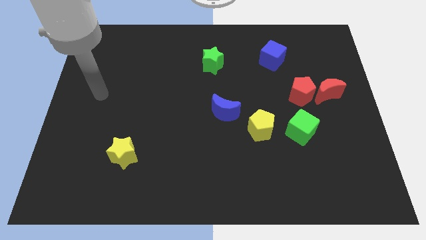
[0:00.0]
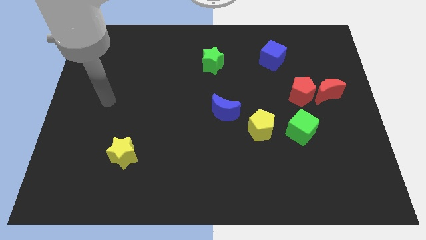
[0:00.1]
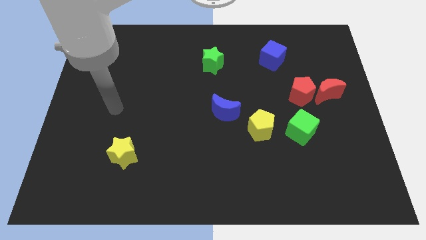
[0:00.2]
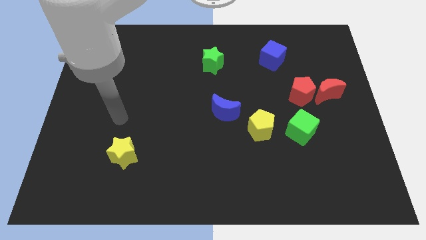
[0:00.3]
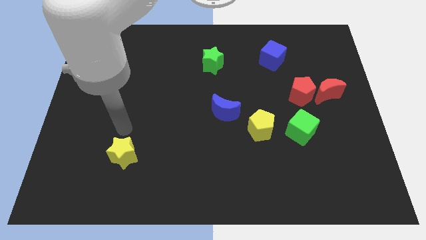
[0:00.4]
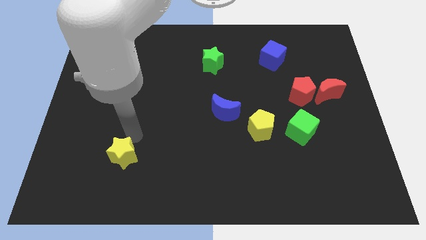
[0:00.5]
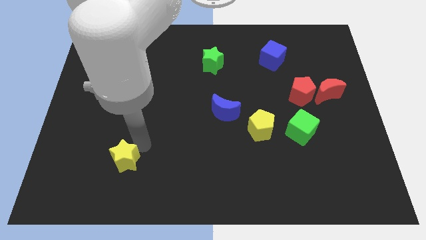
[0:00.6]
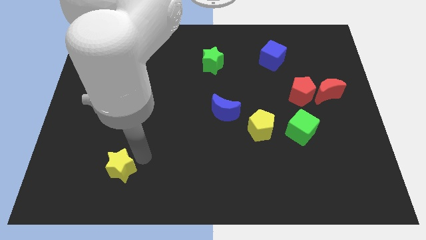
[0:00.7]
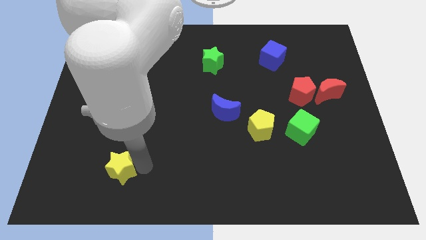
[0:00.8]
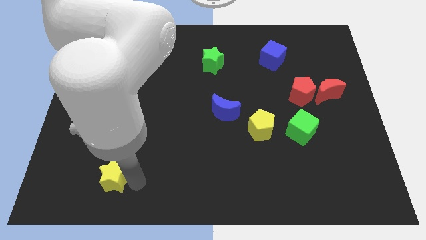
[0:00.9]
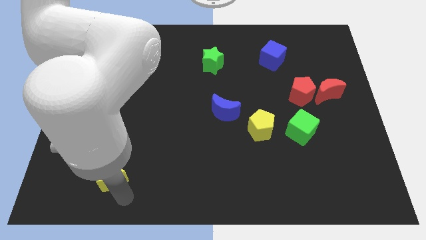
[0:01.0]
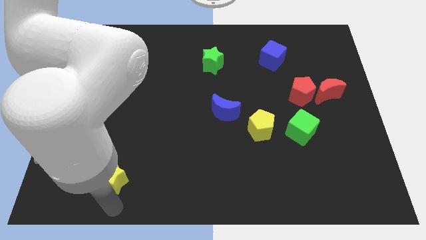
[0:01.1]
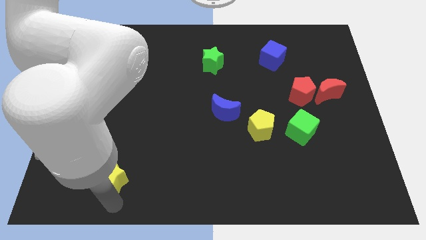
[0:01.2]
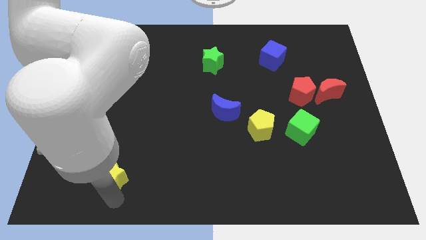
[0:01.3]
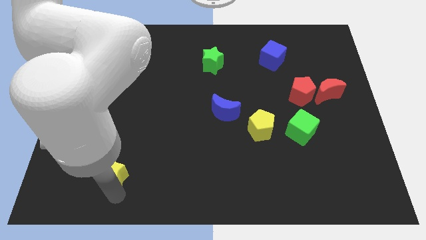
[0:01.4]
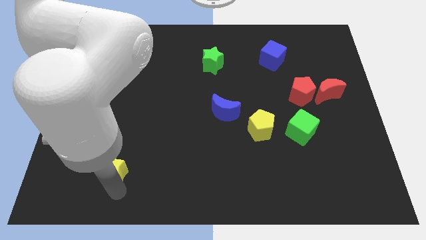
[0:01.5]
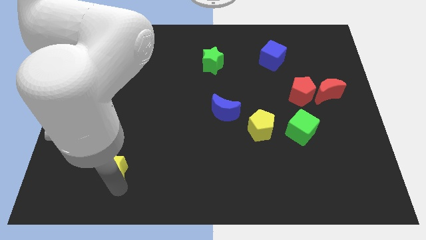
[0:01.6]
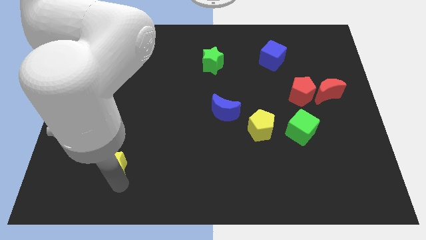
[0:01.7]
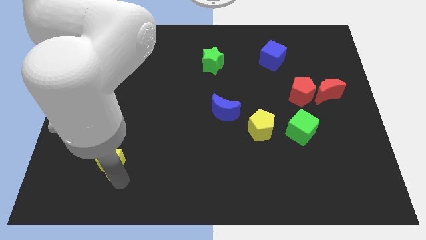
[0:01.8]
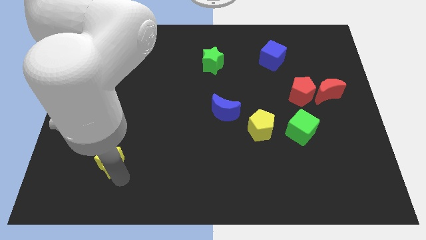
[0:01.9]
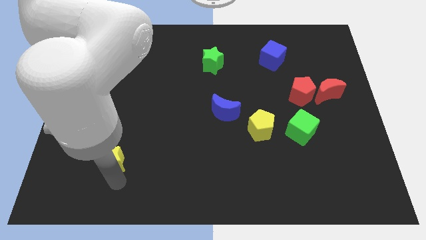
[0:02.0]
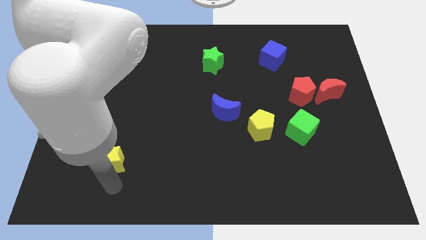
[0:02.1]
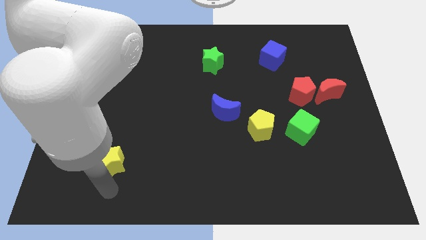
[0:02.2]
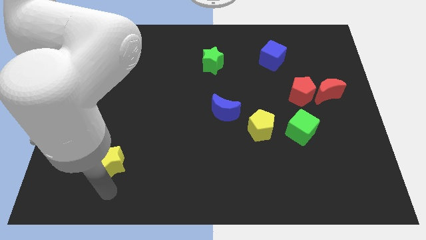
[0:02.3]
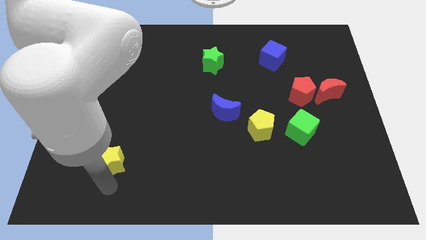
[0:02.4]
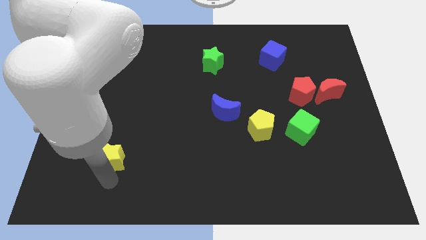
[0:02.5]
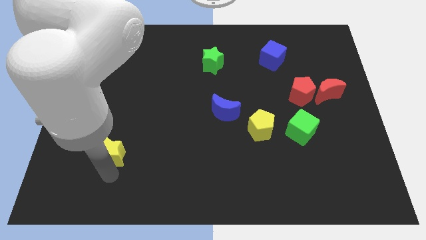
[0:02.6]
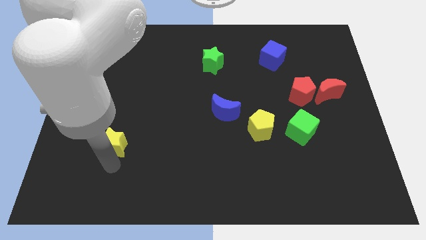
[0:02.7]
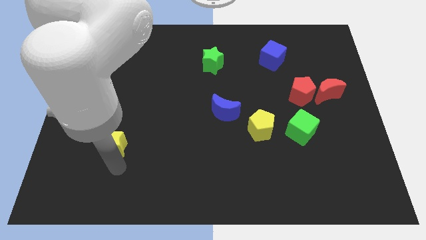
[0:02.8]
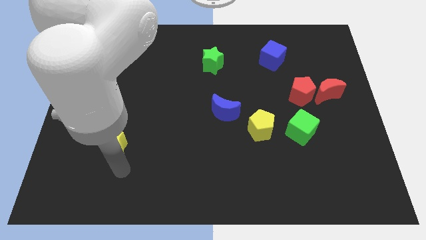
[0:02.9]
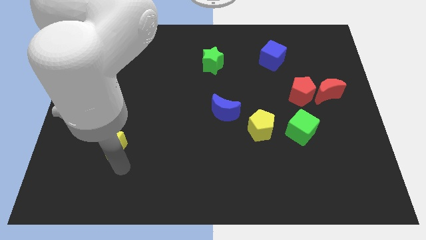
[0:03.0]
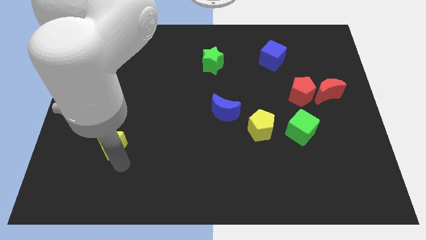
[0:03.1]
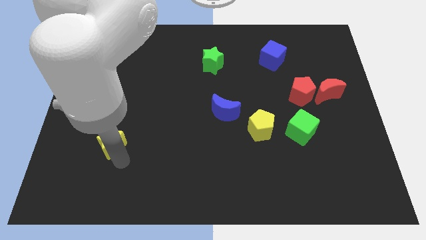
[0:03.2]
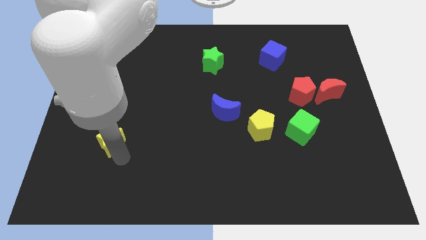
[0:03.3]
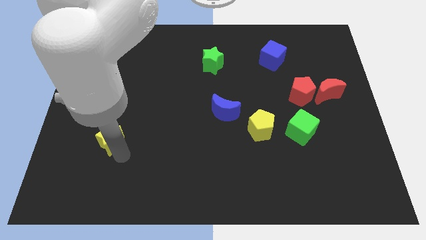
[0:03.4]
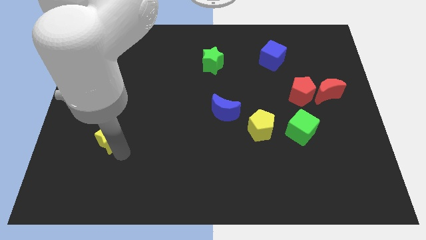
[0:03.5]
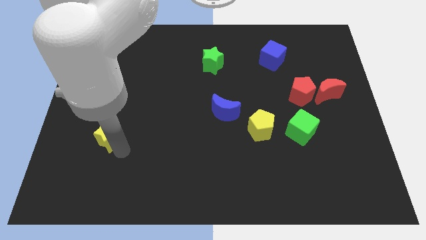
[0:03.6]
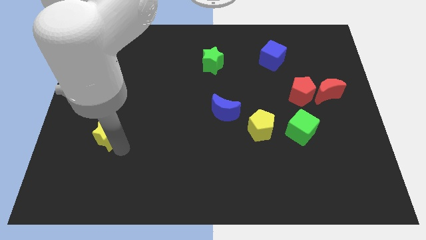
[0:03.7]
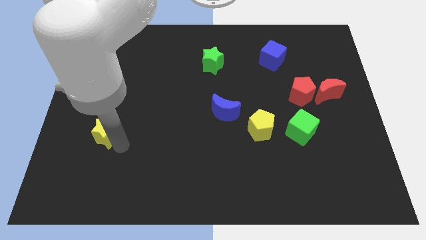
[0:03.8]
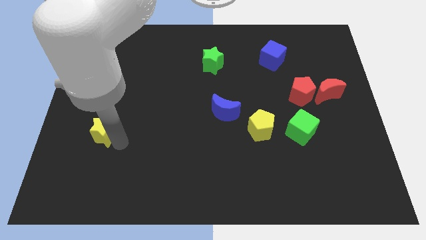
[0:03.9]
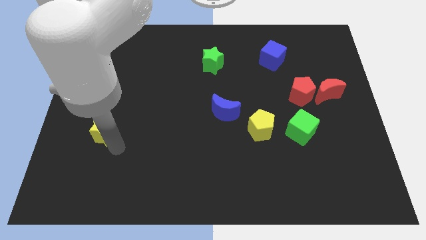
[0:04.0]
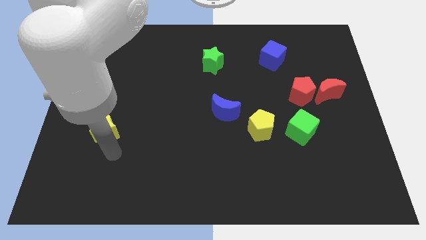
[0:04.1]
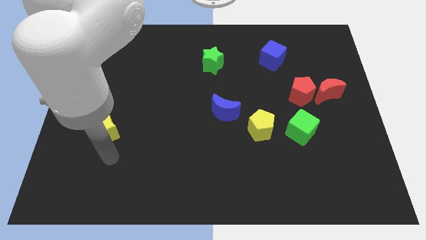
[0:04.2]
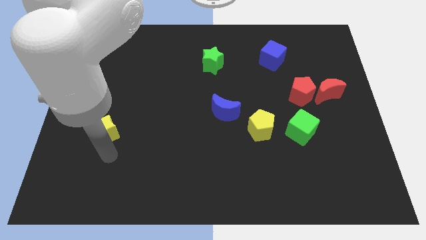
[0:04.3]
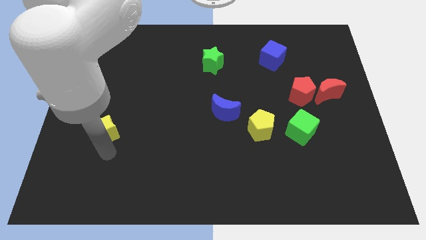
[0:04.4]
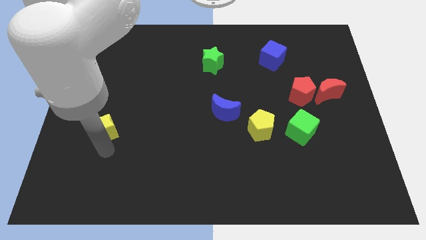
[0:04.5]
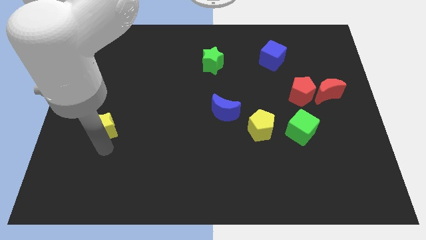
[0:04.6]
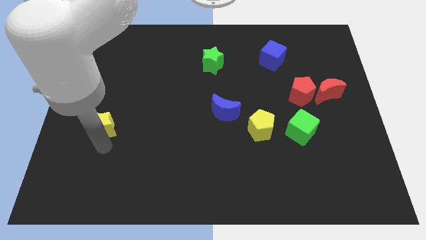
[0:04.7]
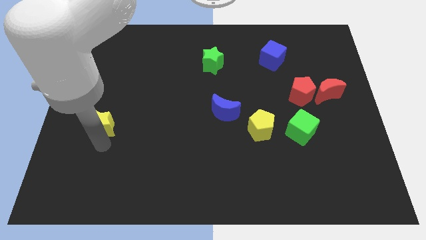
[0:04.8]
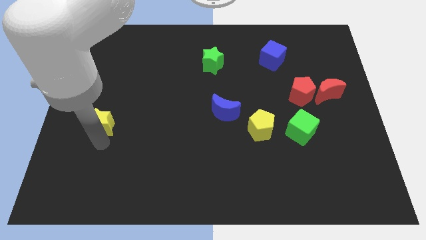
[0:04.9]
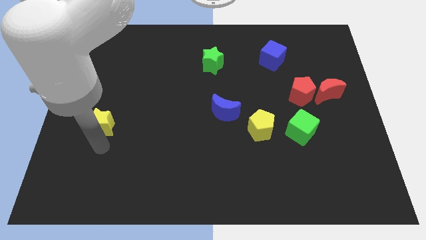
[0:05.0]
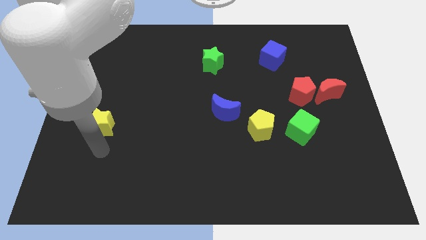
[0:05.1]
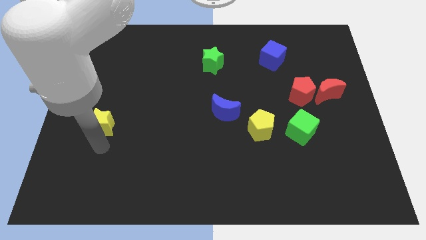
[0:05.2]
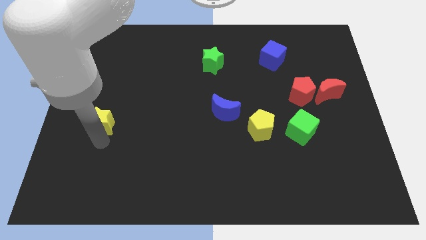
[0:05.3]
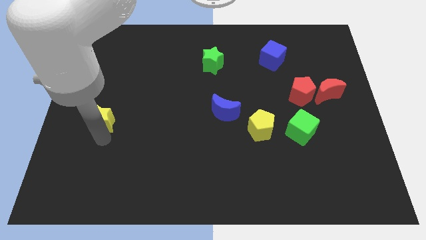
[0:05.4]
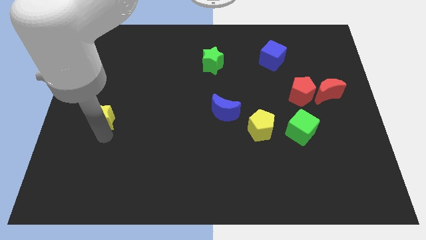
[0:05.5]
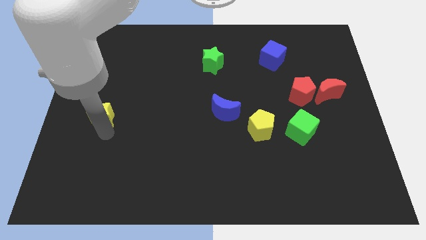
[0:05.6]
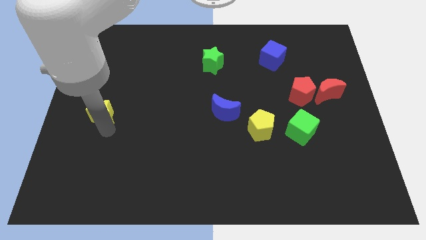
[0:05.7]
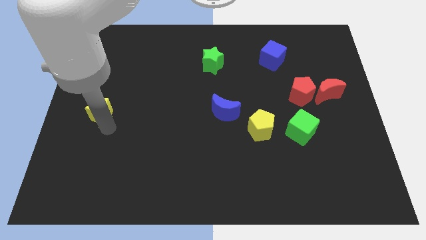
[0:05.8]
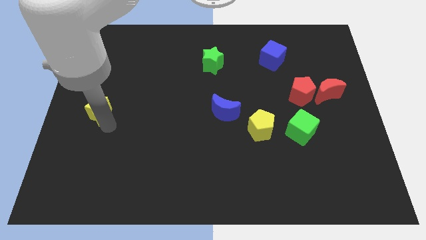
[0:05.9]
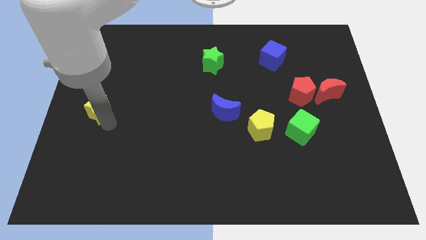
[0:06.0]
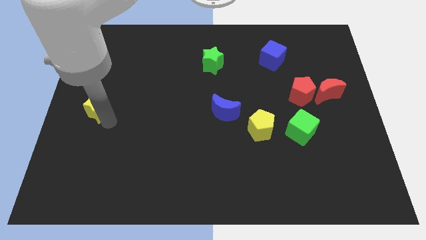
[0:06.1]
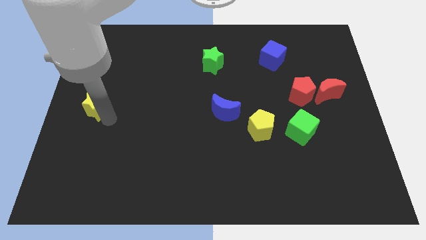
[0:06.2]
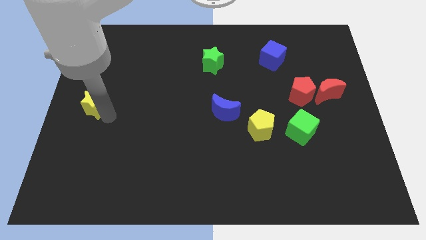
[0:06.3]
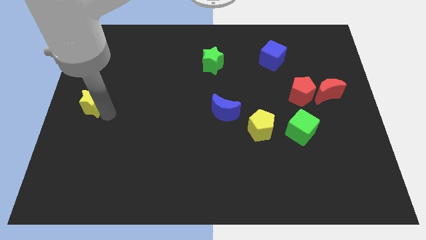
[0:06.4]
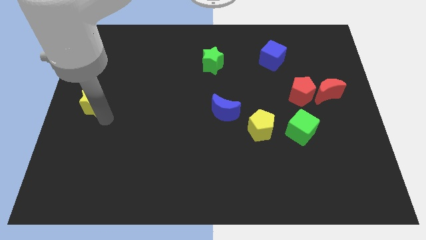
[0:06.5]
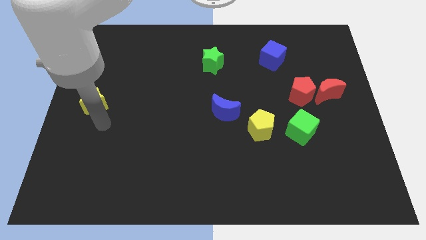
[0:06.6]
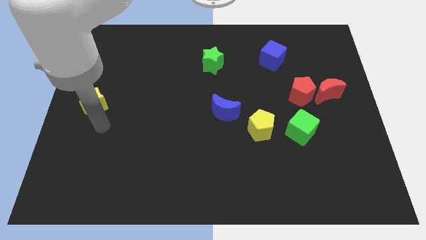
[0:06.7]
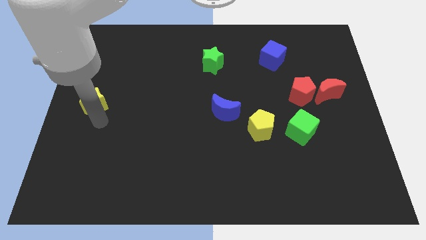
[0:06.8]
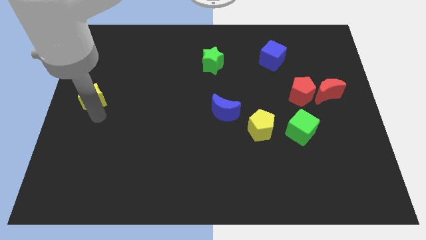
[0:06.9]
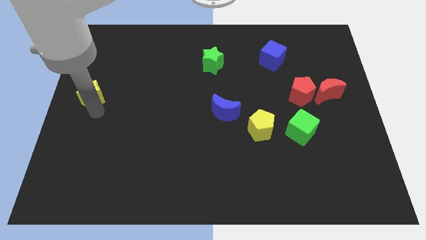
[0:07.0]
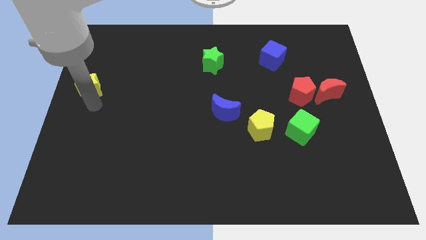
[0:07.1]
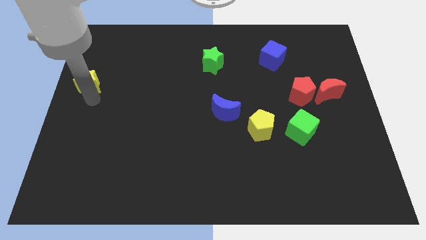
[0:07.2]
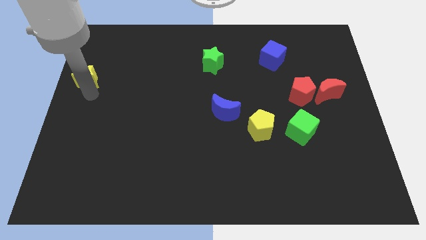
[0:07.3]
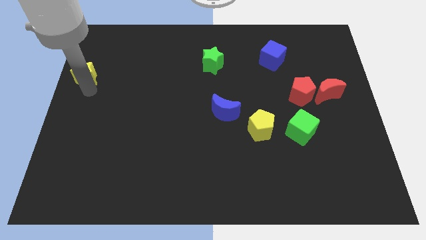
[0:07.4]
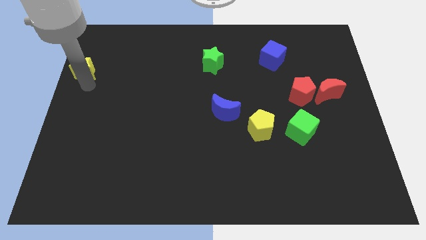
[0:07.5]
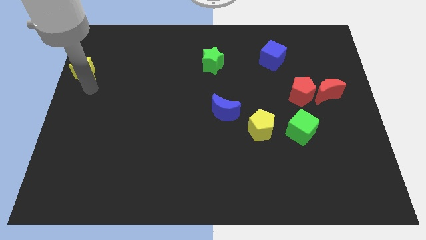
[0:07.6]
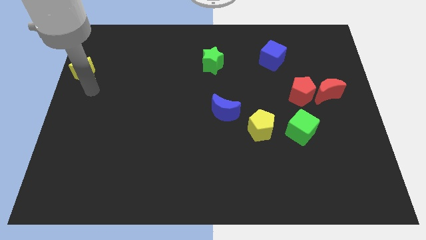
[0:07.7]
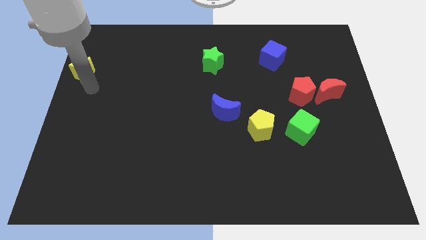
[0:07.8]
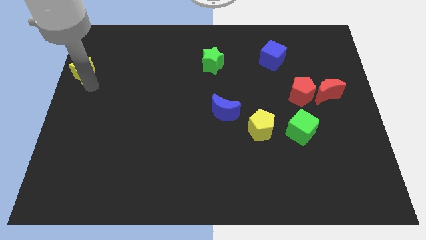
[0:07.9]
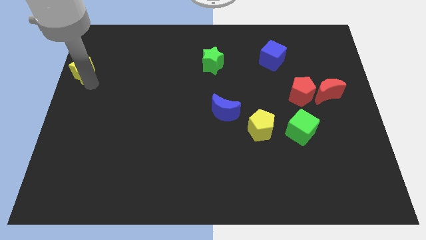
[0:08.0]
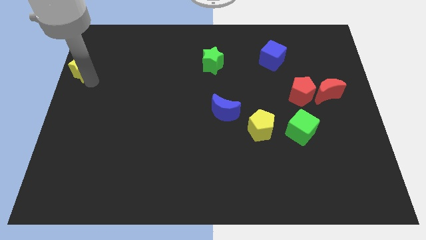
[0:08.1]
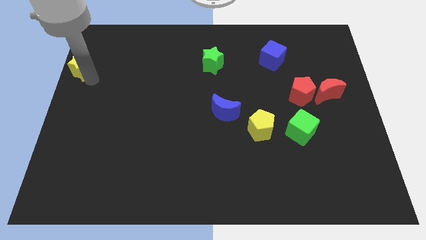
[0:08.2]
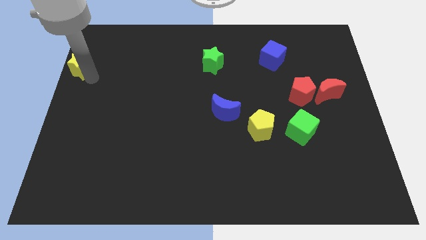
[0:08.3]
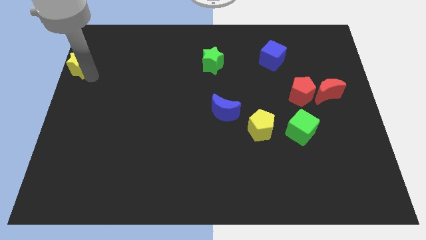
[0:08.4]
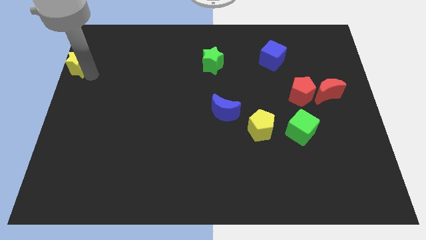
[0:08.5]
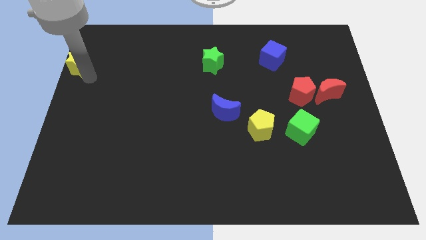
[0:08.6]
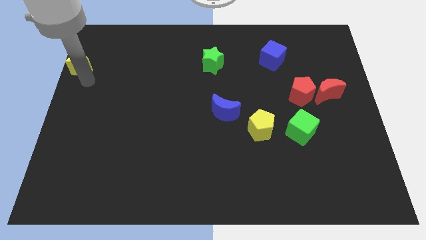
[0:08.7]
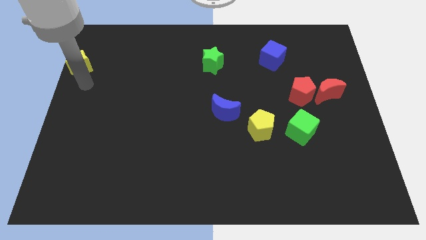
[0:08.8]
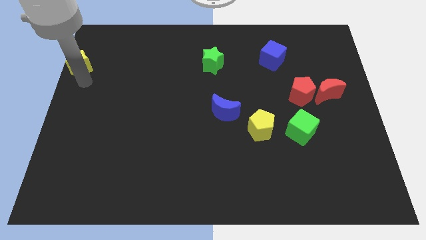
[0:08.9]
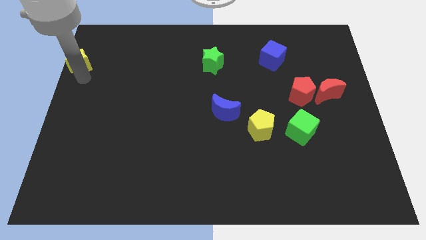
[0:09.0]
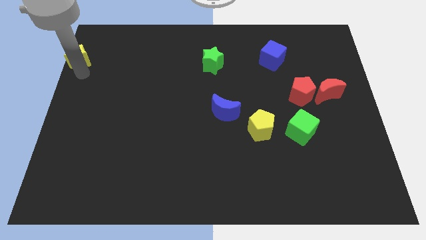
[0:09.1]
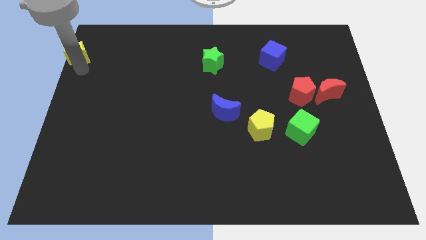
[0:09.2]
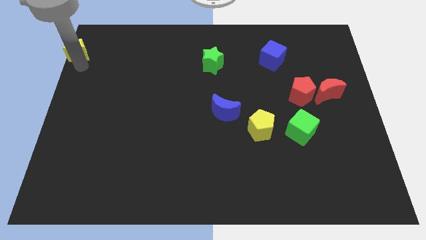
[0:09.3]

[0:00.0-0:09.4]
move the yellow star to the top left of the board
